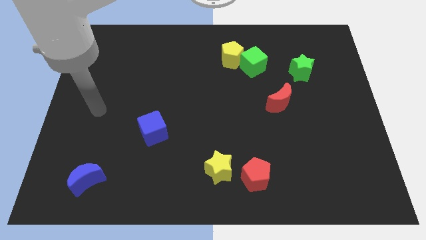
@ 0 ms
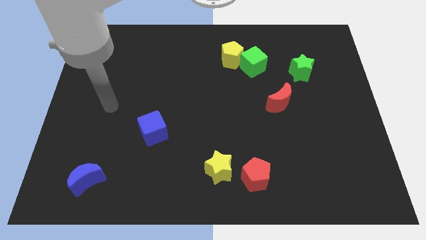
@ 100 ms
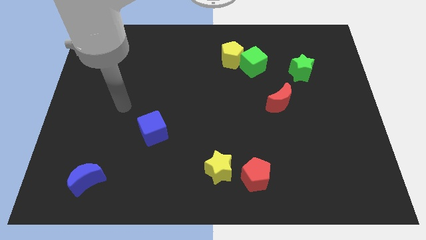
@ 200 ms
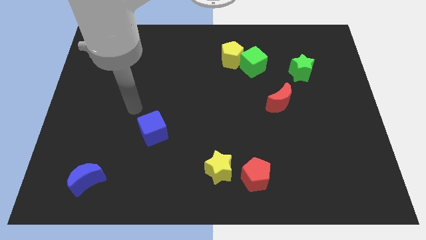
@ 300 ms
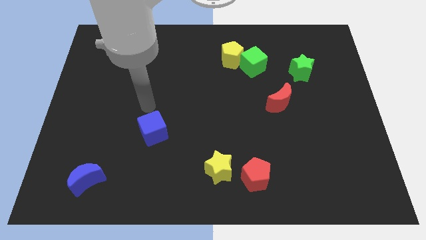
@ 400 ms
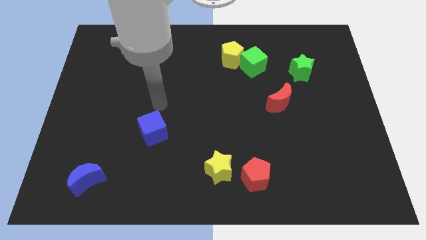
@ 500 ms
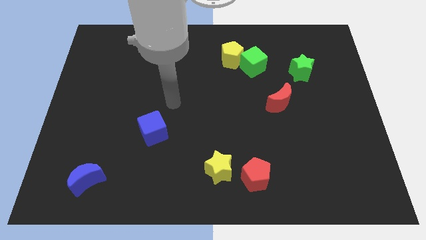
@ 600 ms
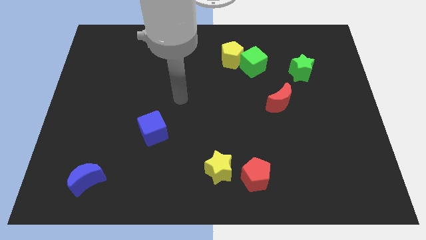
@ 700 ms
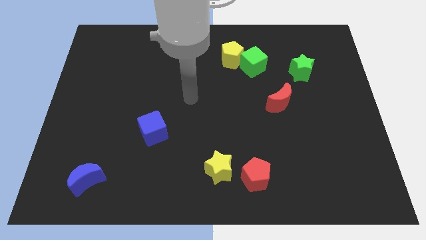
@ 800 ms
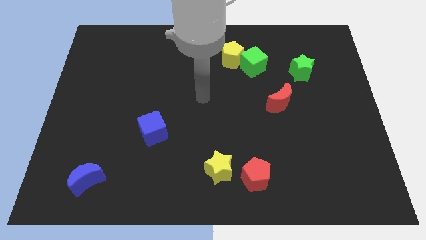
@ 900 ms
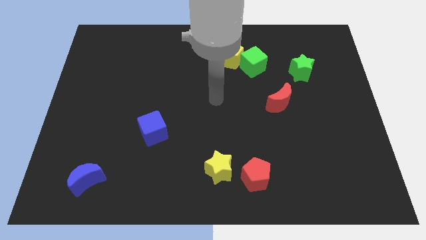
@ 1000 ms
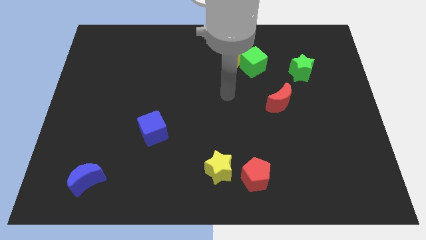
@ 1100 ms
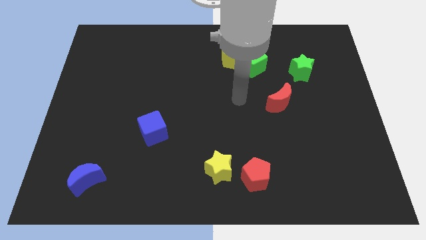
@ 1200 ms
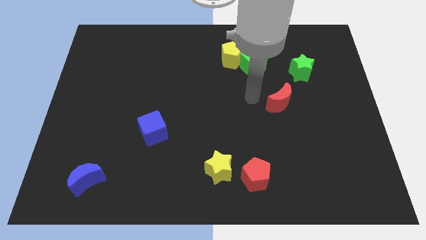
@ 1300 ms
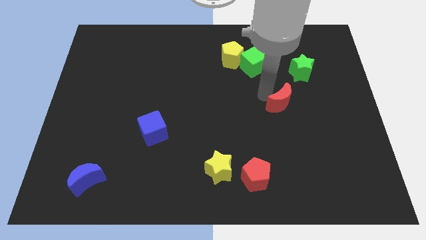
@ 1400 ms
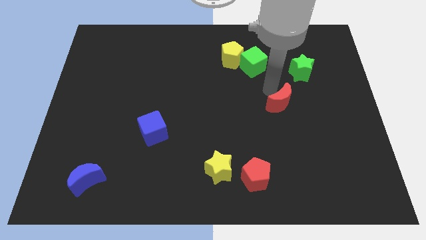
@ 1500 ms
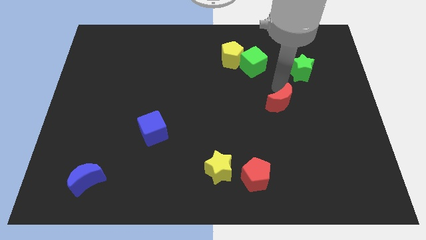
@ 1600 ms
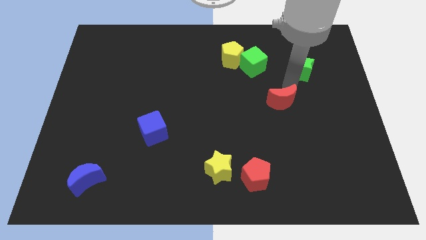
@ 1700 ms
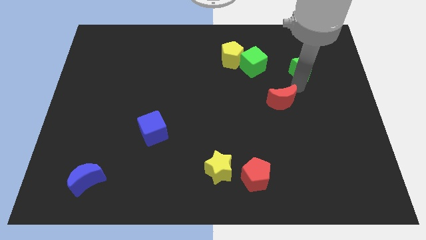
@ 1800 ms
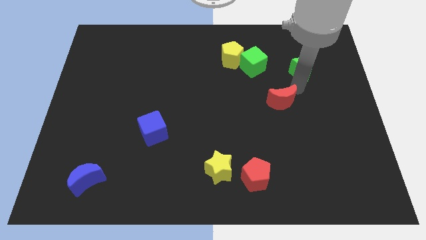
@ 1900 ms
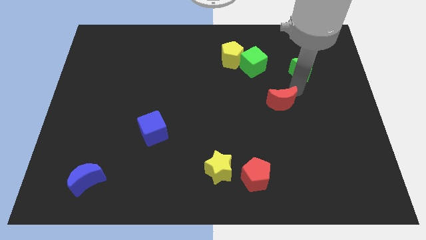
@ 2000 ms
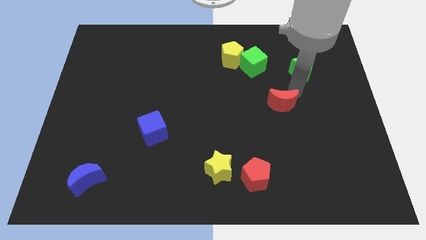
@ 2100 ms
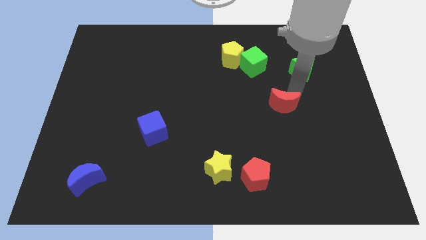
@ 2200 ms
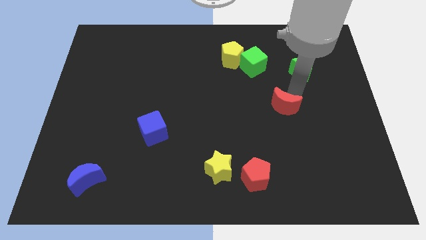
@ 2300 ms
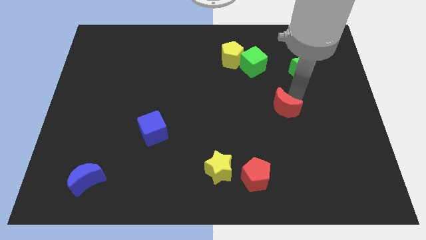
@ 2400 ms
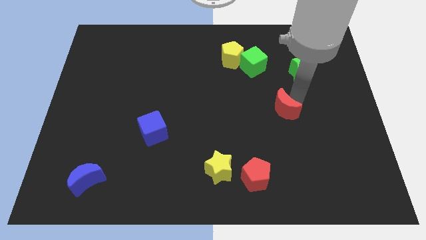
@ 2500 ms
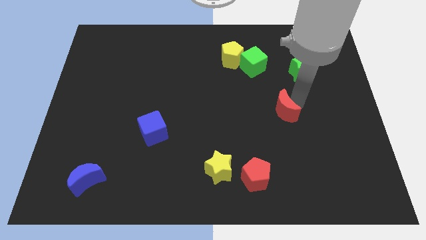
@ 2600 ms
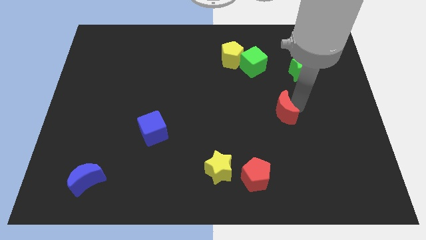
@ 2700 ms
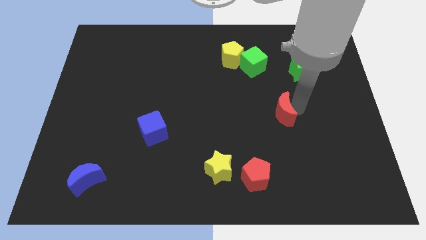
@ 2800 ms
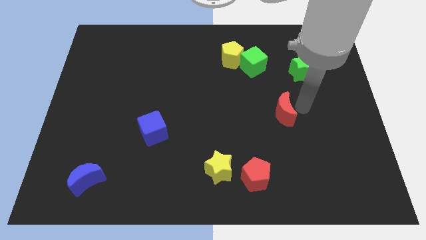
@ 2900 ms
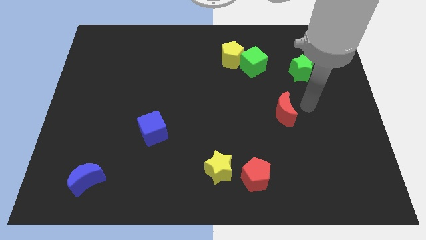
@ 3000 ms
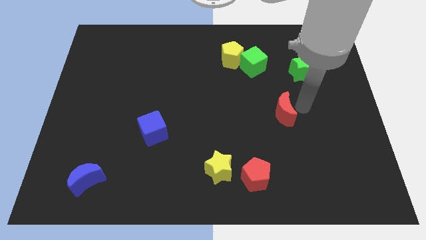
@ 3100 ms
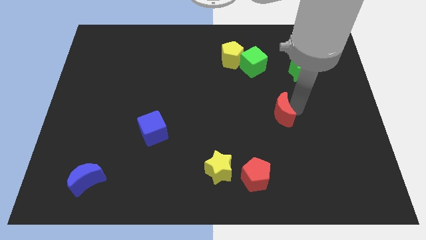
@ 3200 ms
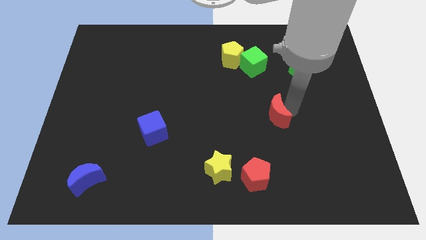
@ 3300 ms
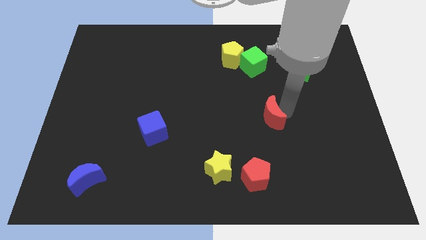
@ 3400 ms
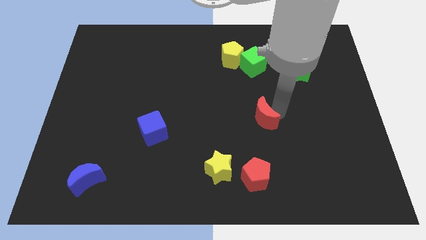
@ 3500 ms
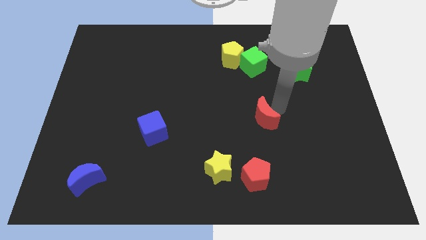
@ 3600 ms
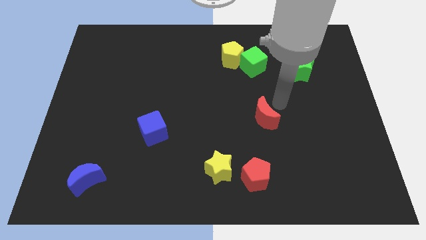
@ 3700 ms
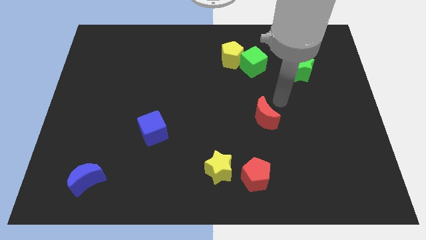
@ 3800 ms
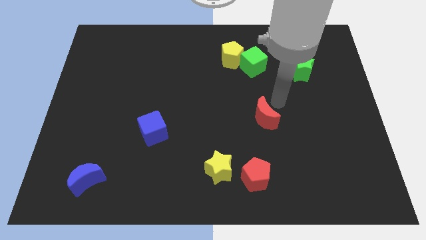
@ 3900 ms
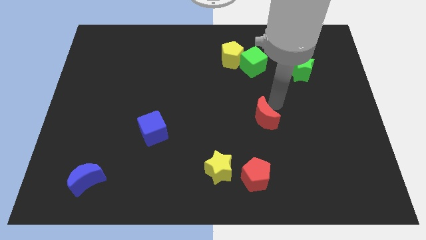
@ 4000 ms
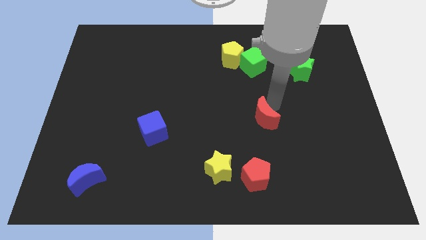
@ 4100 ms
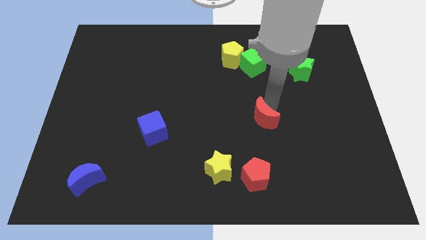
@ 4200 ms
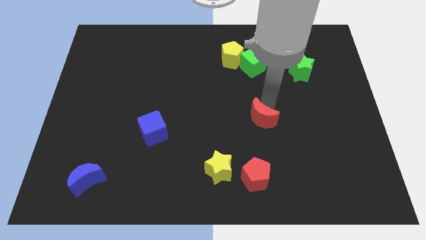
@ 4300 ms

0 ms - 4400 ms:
slide the red moon a bit diagonally downwards and to the left

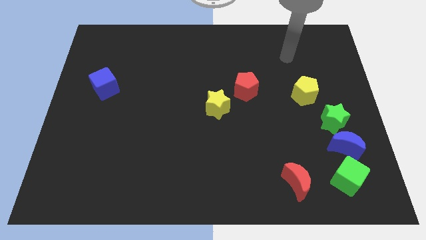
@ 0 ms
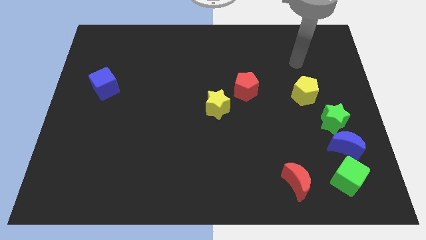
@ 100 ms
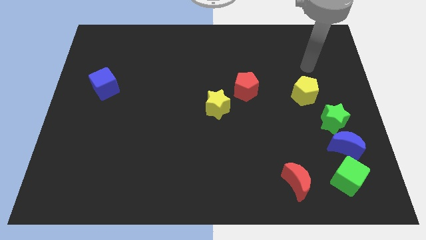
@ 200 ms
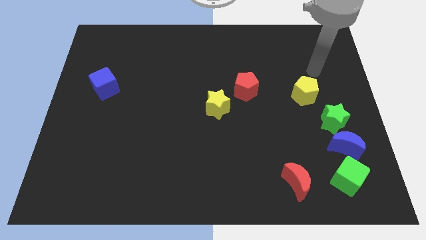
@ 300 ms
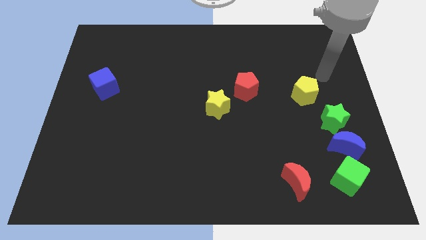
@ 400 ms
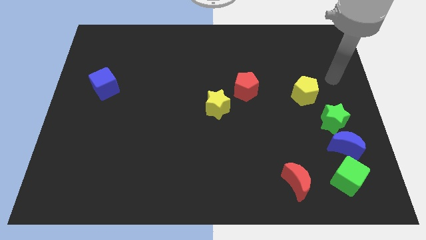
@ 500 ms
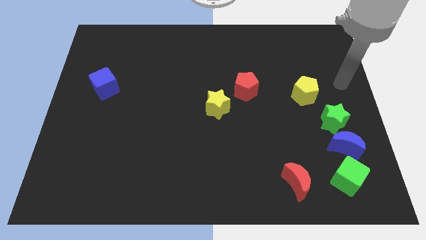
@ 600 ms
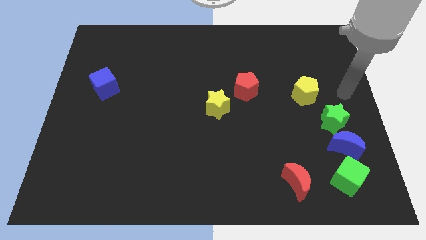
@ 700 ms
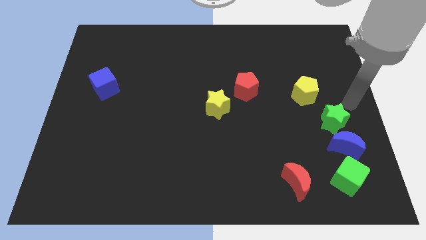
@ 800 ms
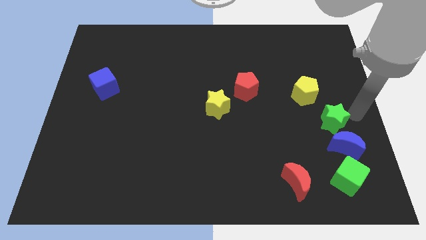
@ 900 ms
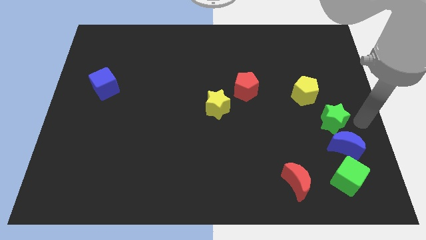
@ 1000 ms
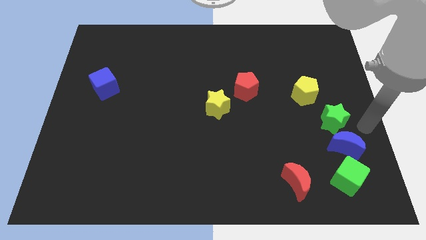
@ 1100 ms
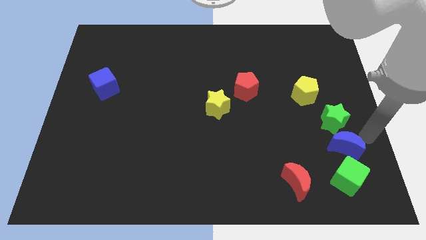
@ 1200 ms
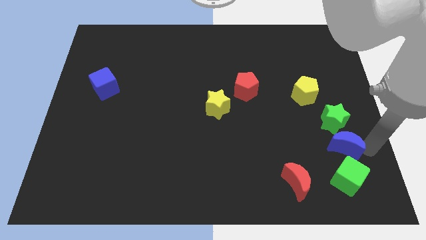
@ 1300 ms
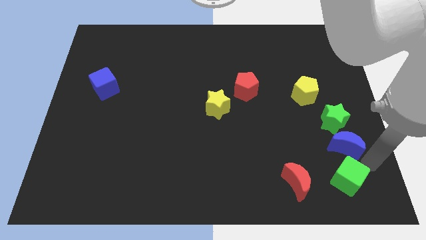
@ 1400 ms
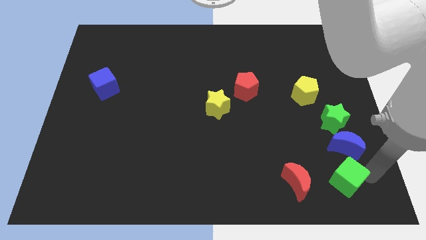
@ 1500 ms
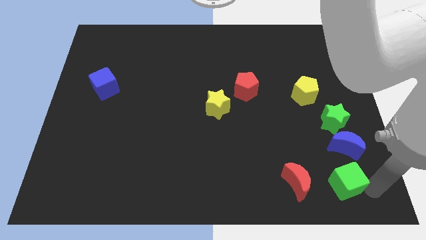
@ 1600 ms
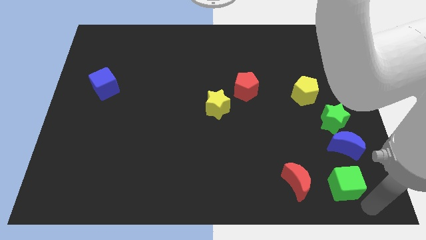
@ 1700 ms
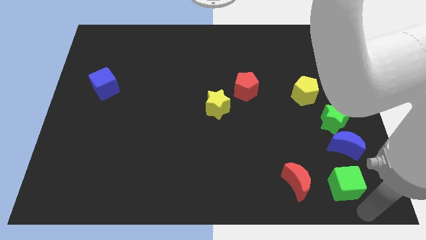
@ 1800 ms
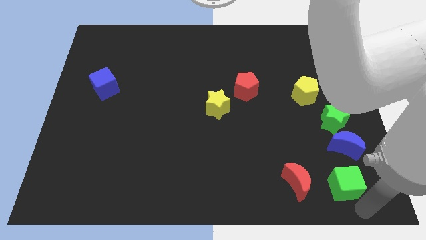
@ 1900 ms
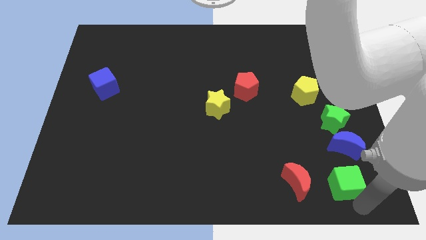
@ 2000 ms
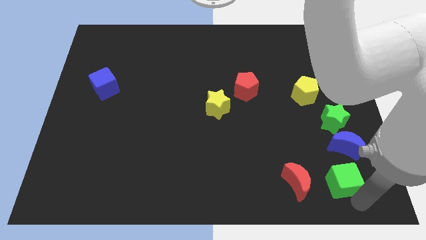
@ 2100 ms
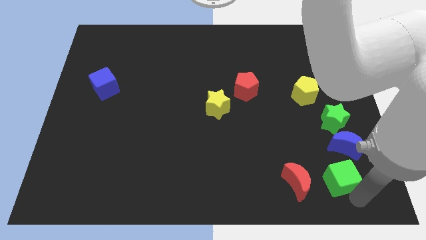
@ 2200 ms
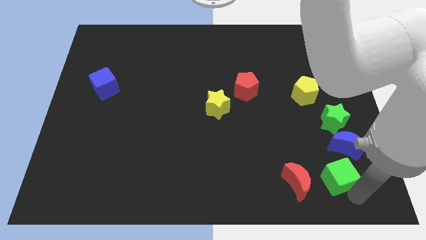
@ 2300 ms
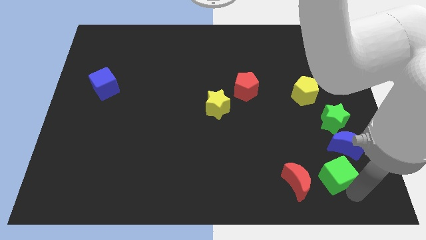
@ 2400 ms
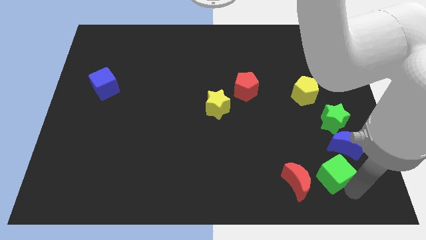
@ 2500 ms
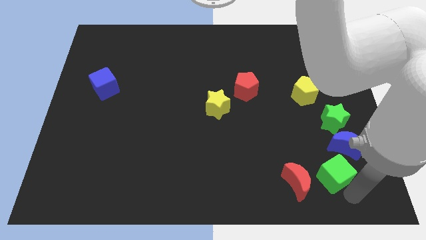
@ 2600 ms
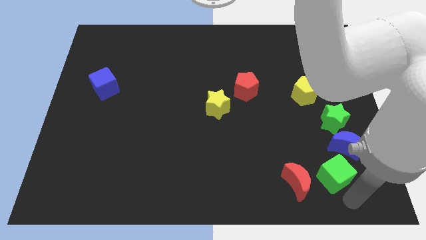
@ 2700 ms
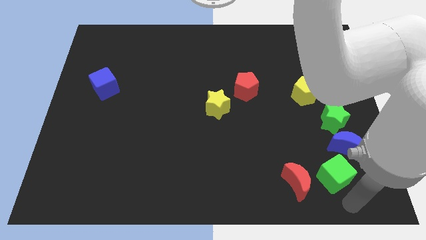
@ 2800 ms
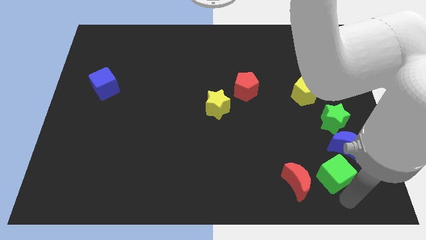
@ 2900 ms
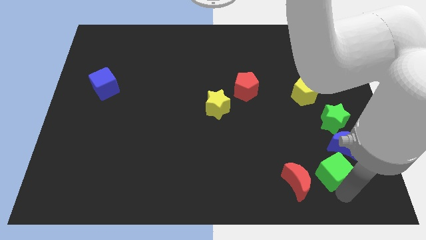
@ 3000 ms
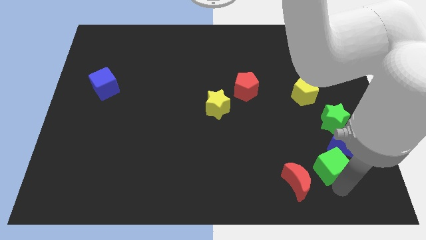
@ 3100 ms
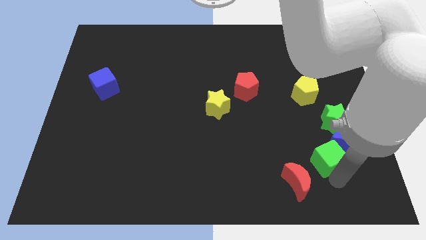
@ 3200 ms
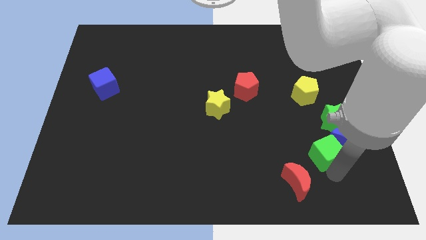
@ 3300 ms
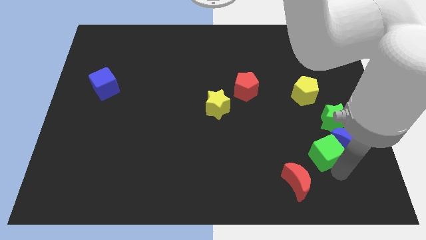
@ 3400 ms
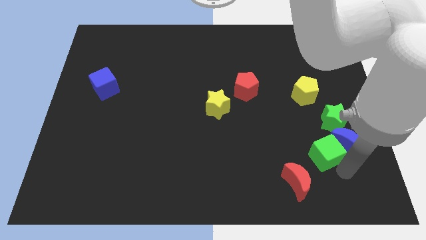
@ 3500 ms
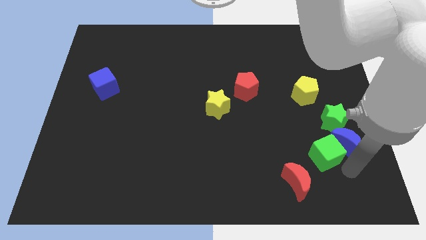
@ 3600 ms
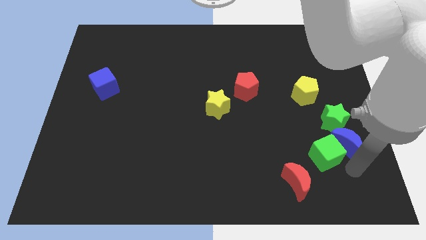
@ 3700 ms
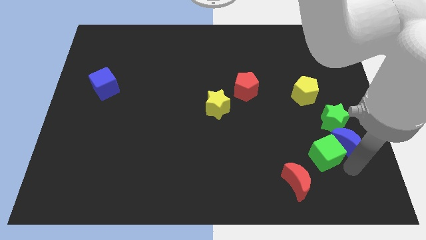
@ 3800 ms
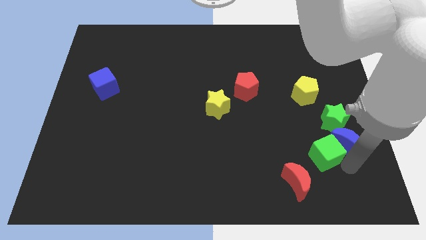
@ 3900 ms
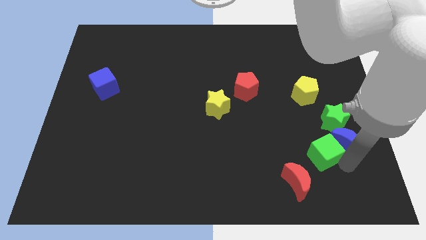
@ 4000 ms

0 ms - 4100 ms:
move the green cube upwards and left diagonally slightly
